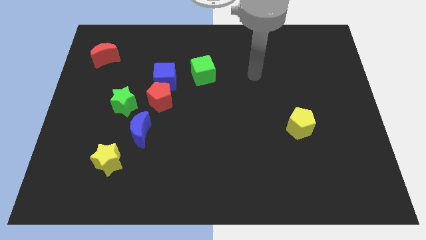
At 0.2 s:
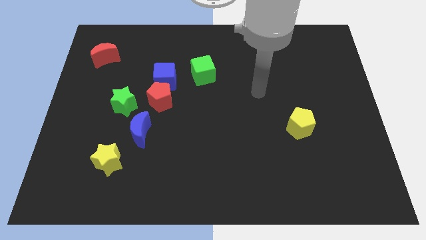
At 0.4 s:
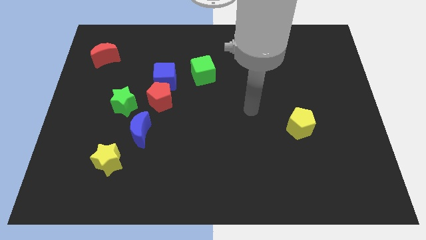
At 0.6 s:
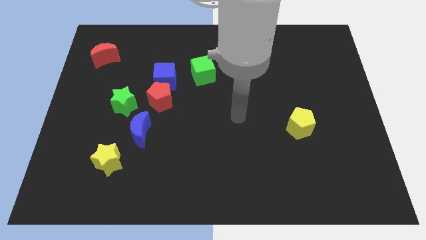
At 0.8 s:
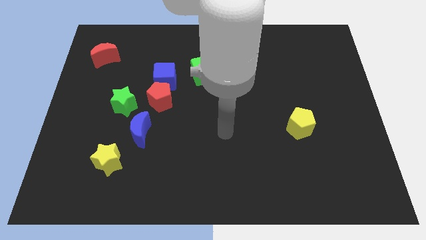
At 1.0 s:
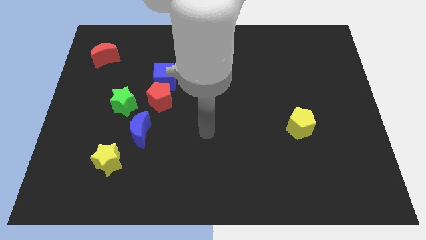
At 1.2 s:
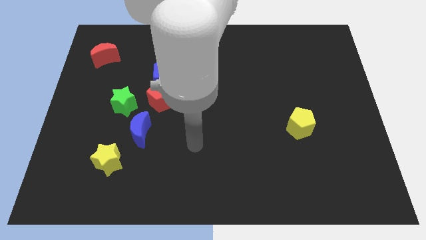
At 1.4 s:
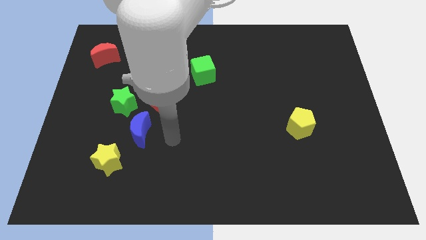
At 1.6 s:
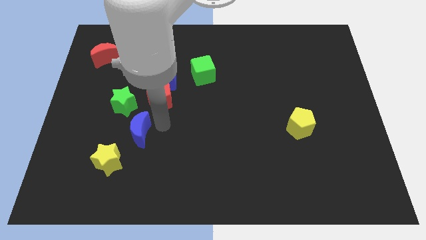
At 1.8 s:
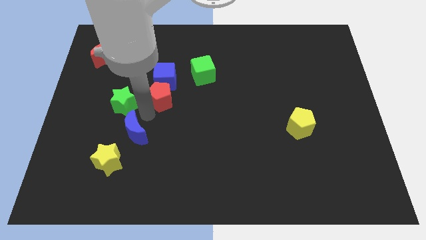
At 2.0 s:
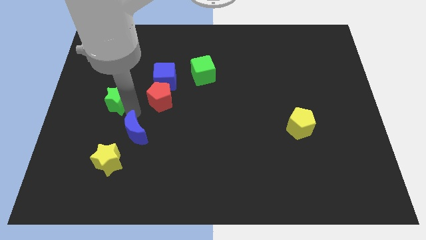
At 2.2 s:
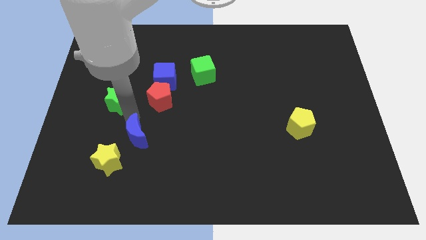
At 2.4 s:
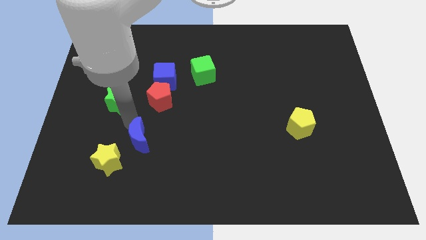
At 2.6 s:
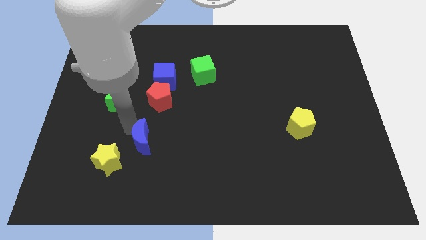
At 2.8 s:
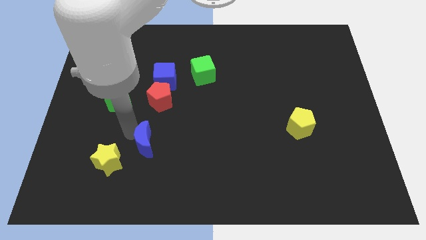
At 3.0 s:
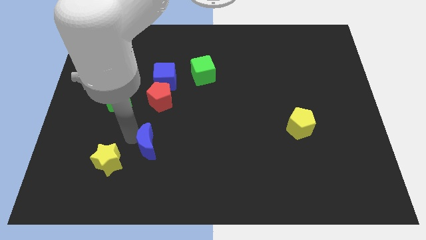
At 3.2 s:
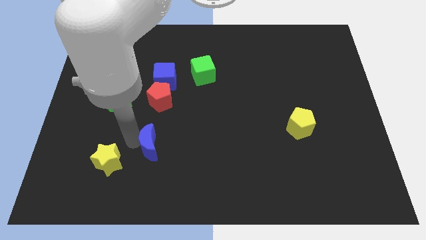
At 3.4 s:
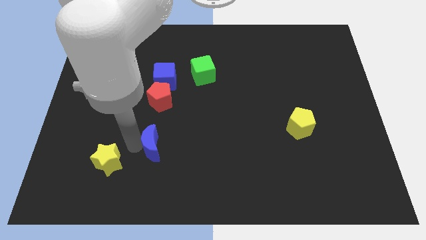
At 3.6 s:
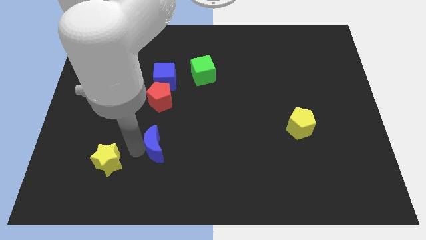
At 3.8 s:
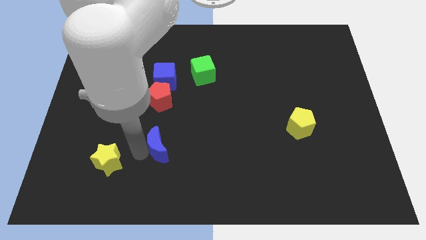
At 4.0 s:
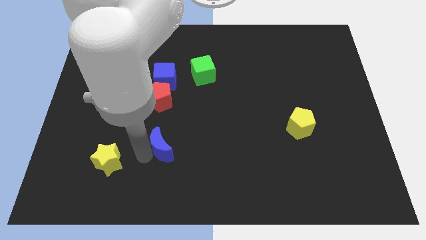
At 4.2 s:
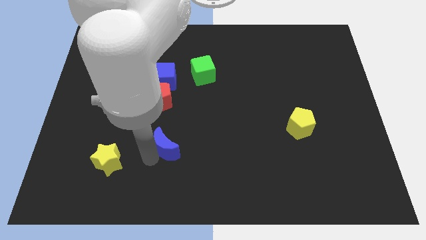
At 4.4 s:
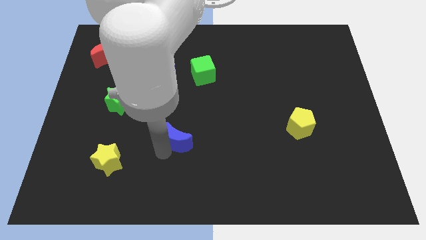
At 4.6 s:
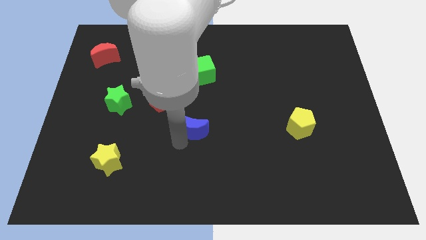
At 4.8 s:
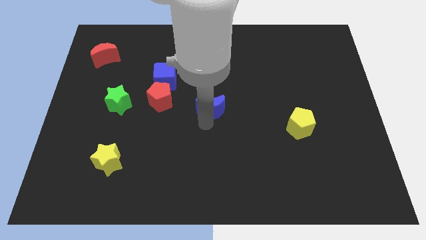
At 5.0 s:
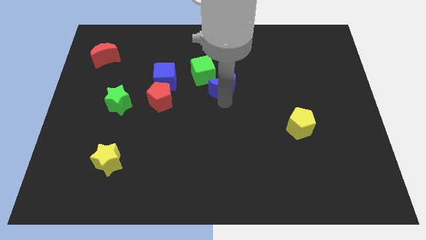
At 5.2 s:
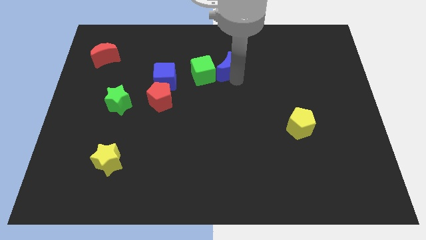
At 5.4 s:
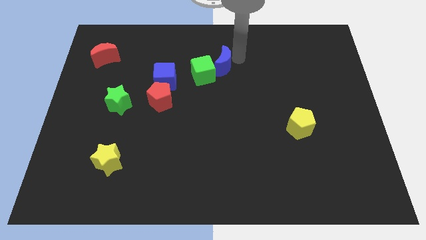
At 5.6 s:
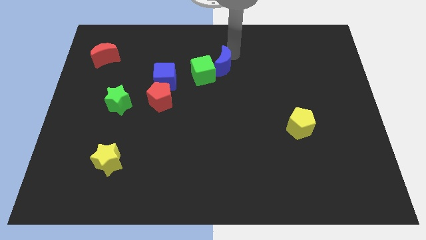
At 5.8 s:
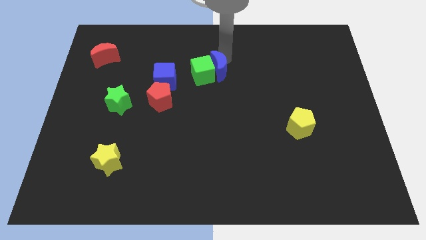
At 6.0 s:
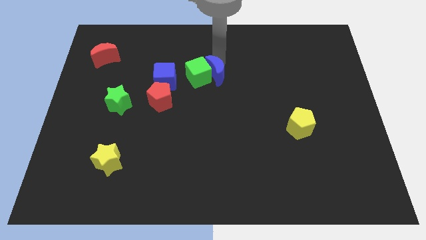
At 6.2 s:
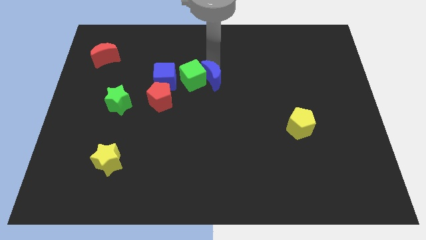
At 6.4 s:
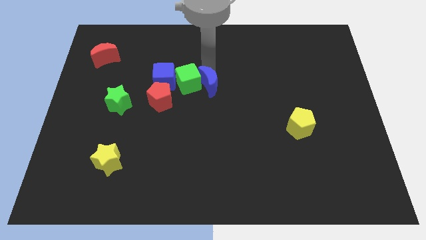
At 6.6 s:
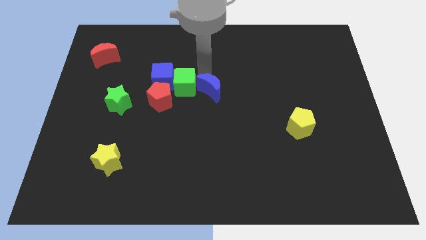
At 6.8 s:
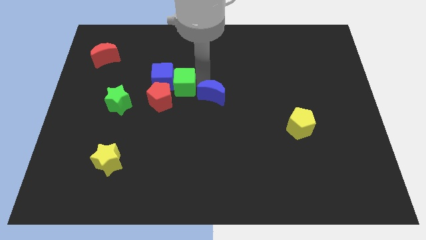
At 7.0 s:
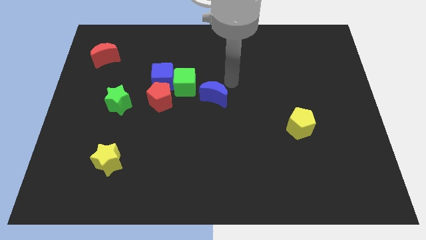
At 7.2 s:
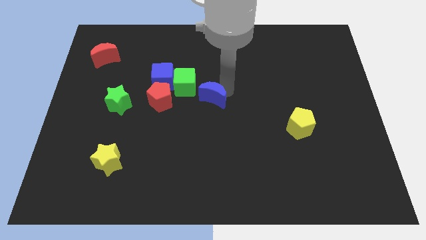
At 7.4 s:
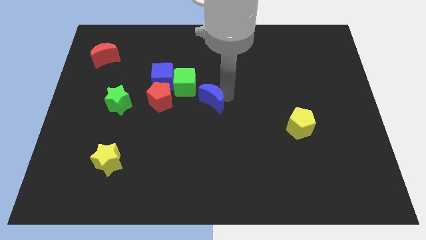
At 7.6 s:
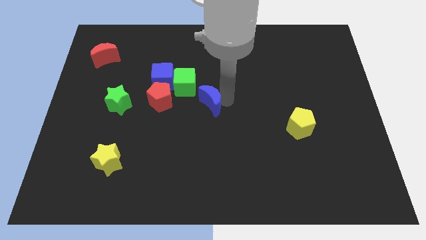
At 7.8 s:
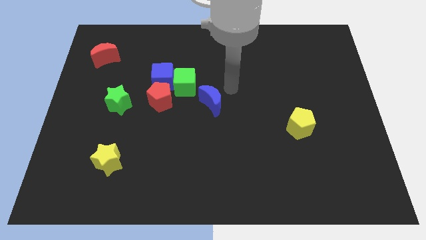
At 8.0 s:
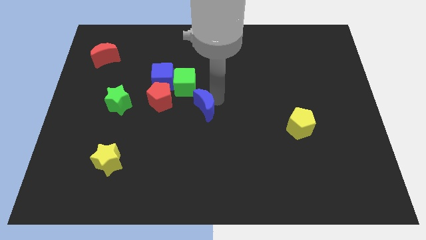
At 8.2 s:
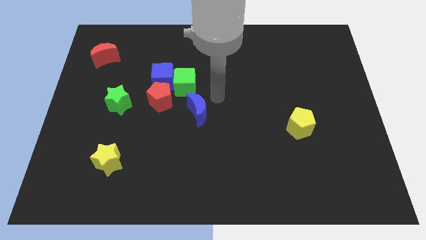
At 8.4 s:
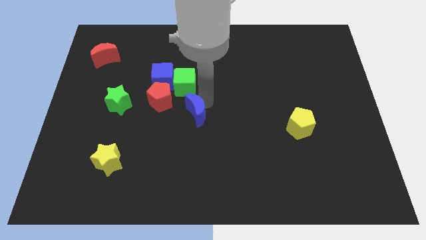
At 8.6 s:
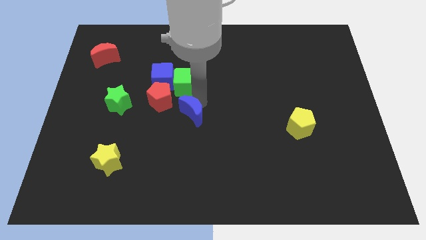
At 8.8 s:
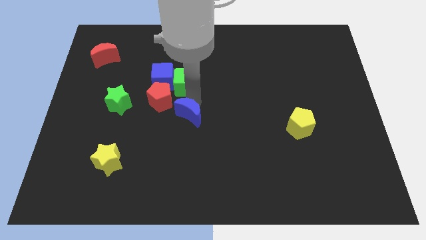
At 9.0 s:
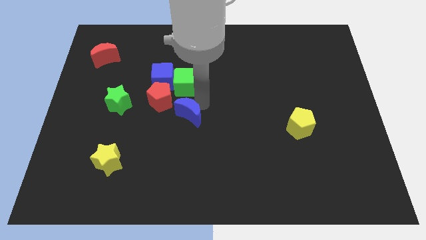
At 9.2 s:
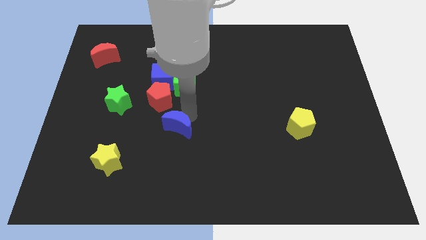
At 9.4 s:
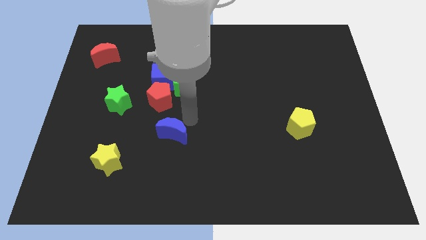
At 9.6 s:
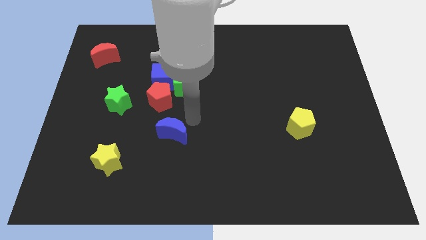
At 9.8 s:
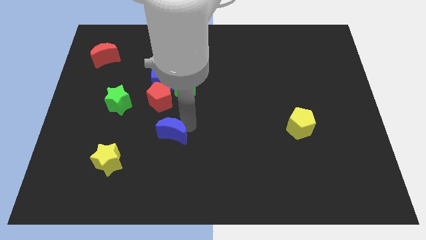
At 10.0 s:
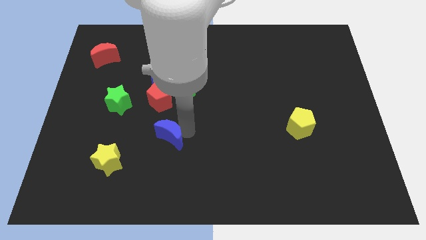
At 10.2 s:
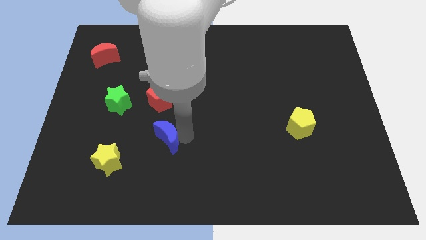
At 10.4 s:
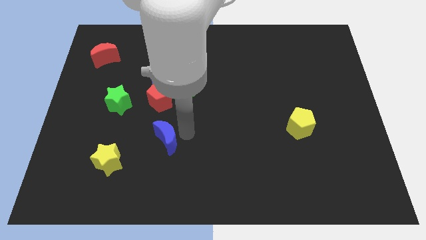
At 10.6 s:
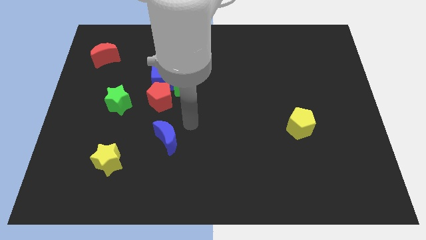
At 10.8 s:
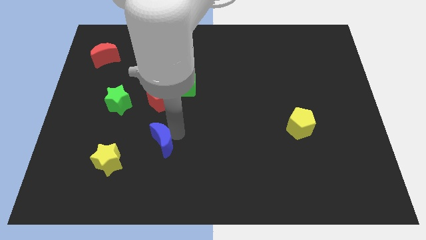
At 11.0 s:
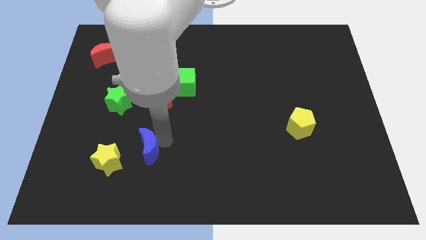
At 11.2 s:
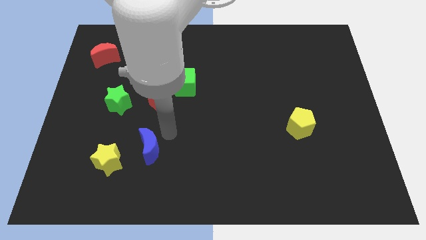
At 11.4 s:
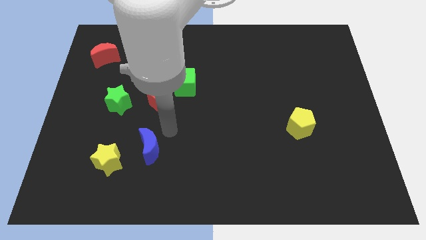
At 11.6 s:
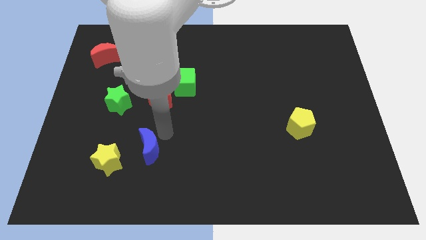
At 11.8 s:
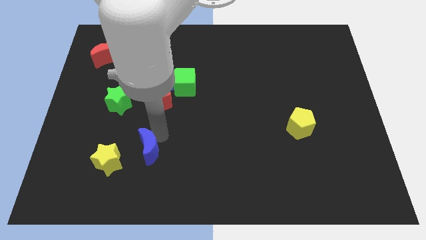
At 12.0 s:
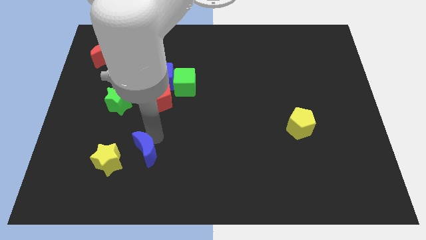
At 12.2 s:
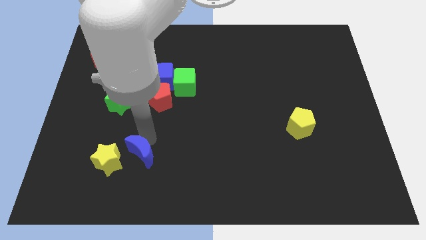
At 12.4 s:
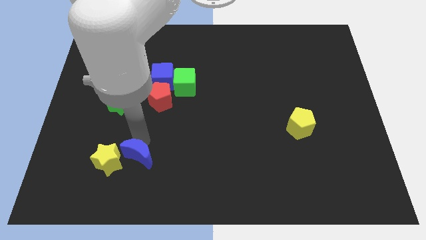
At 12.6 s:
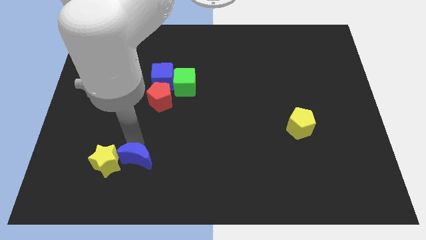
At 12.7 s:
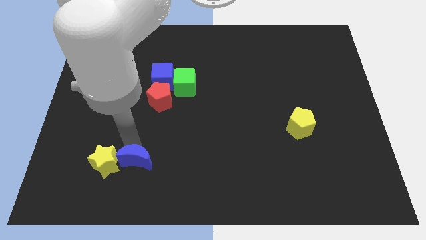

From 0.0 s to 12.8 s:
move the blue moon to the bottom right of the yellow star

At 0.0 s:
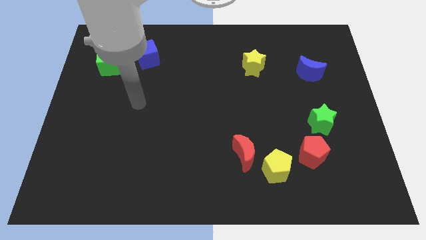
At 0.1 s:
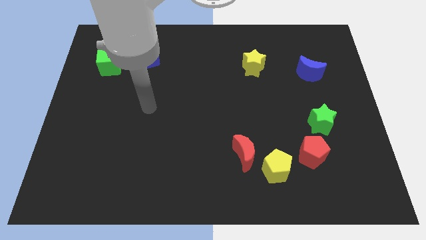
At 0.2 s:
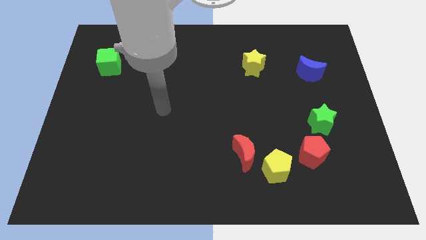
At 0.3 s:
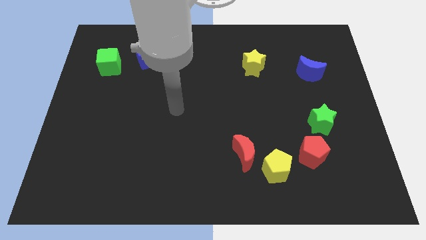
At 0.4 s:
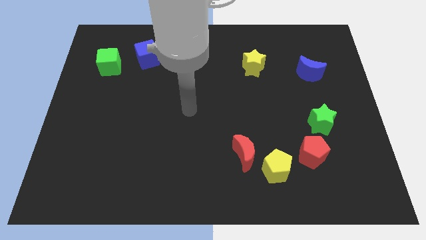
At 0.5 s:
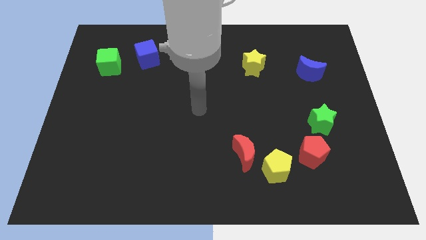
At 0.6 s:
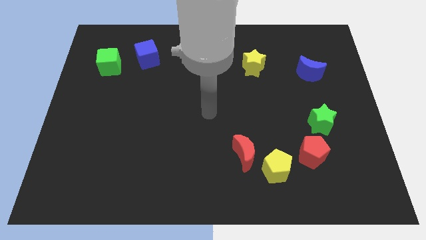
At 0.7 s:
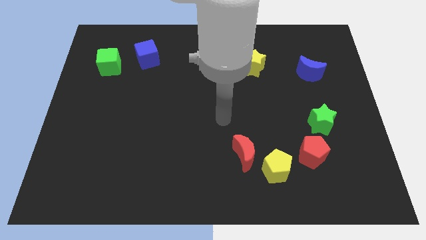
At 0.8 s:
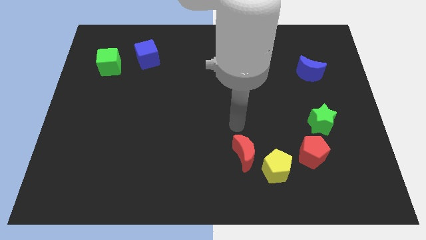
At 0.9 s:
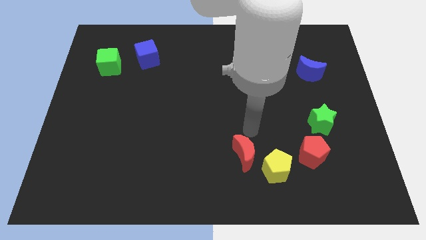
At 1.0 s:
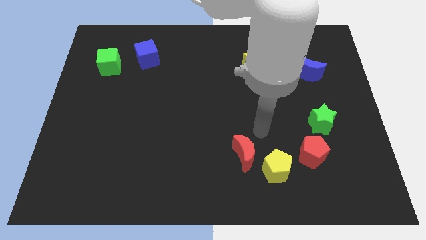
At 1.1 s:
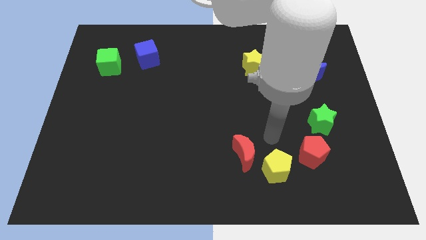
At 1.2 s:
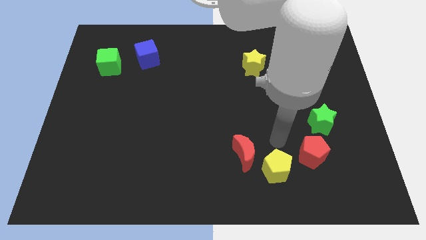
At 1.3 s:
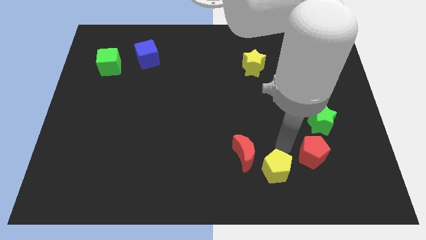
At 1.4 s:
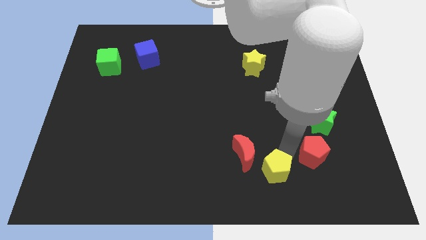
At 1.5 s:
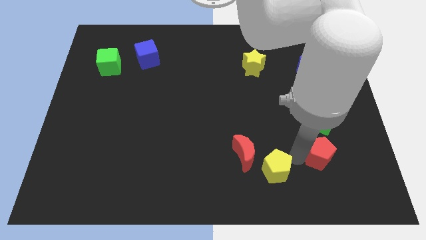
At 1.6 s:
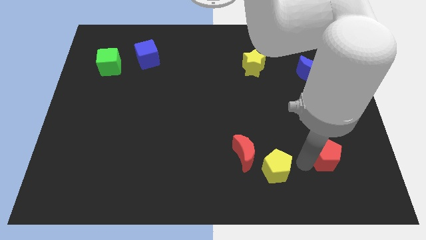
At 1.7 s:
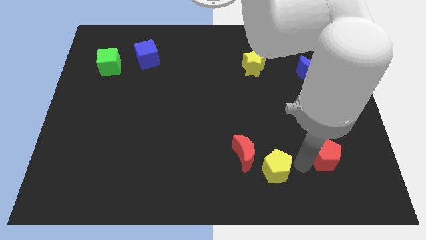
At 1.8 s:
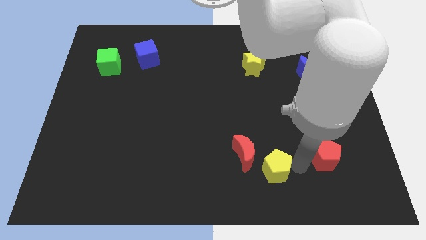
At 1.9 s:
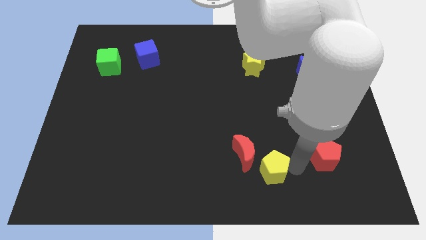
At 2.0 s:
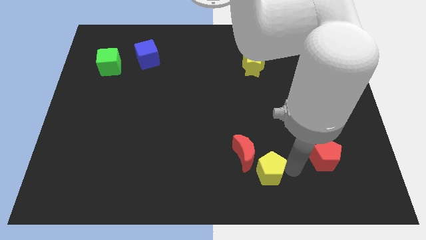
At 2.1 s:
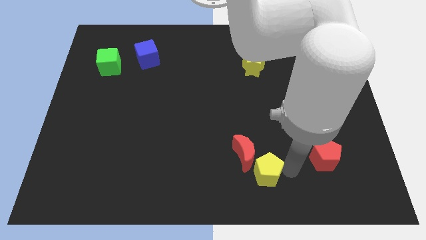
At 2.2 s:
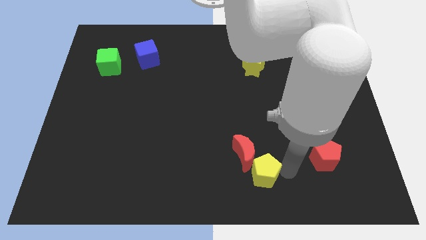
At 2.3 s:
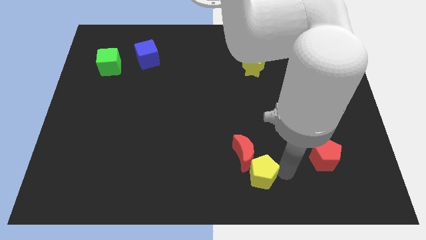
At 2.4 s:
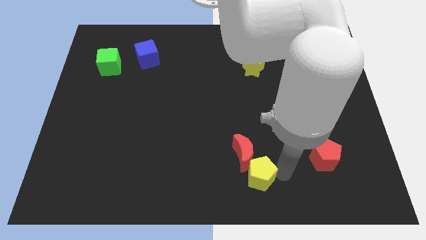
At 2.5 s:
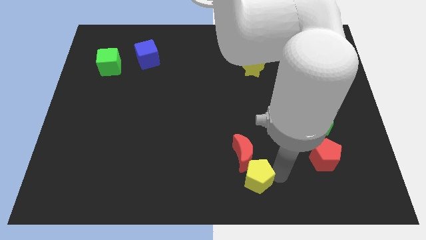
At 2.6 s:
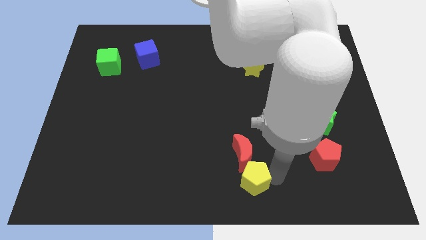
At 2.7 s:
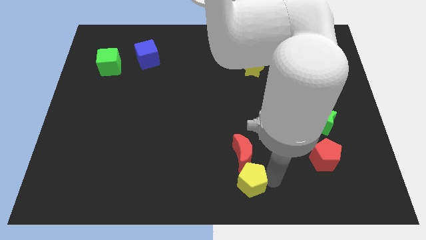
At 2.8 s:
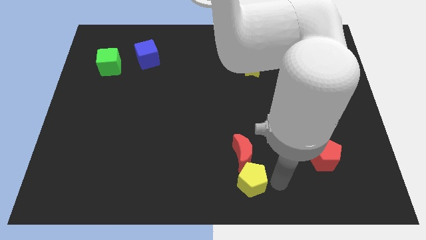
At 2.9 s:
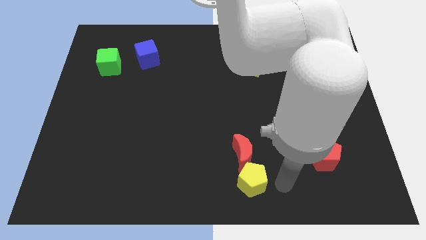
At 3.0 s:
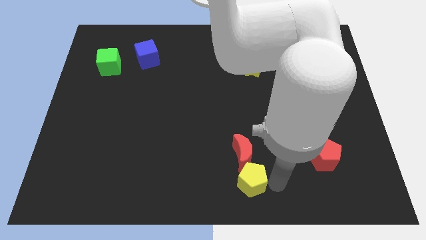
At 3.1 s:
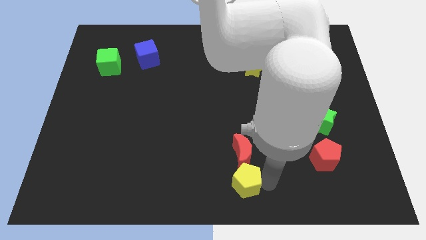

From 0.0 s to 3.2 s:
slide the yellow pentagon diagonally down and to the left of the red moon
